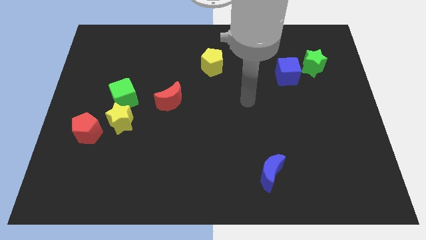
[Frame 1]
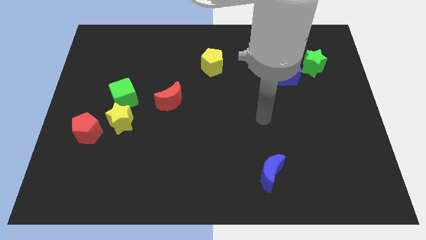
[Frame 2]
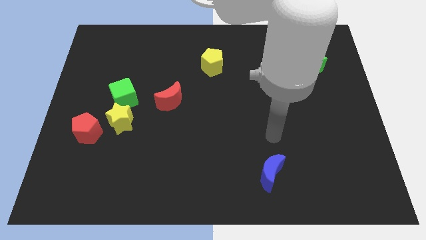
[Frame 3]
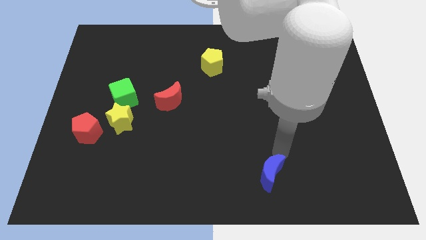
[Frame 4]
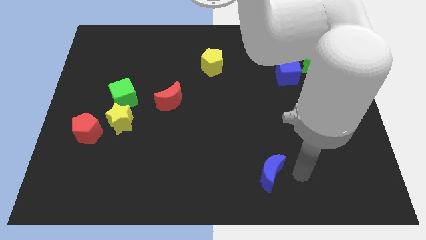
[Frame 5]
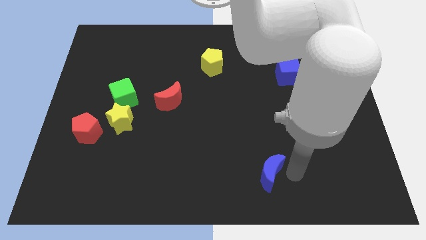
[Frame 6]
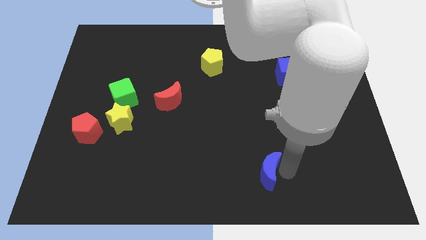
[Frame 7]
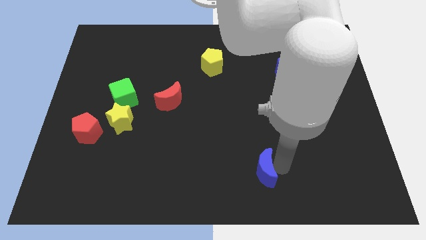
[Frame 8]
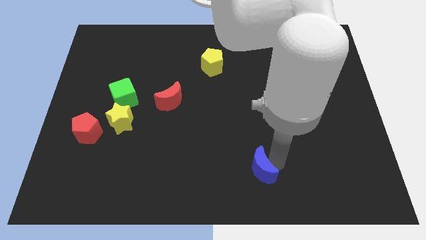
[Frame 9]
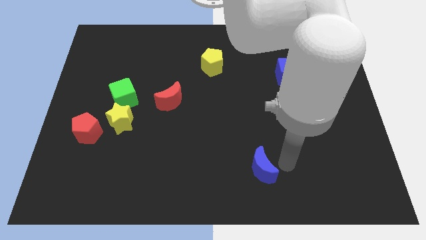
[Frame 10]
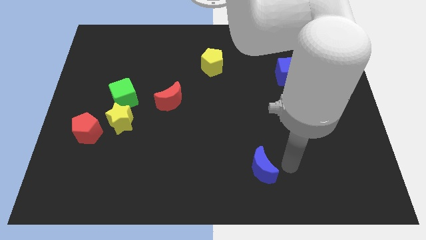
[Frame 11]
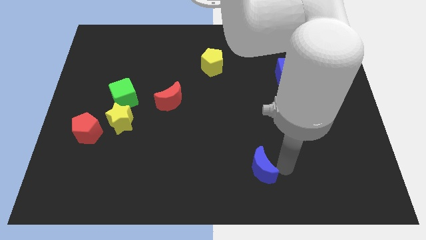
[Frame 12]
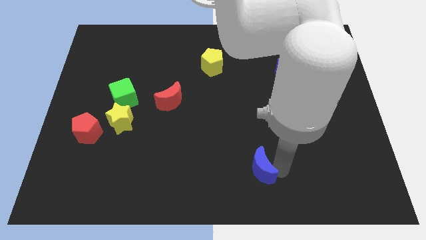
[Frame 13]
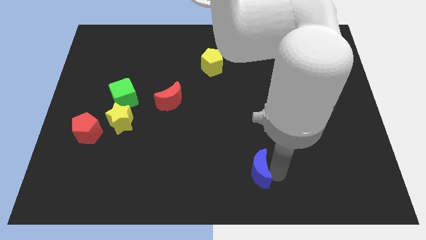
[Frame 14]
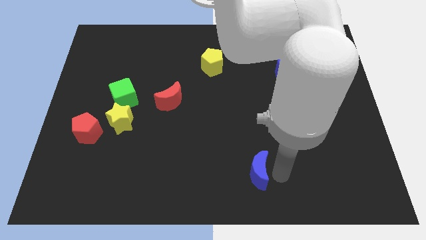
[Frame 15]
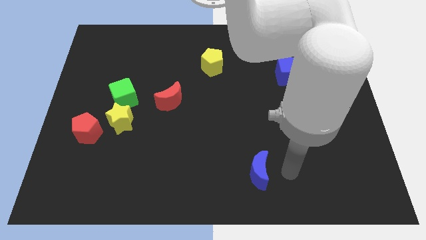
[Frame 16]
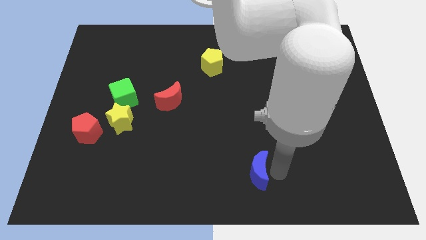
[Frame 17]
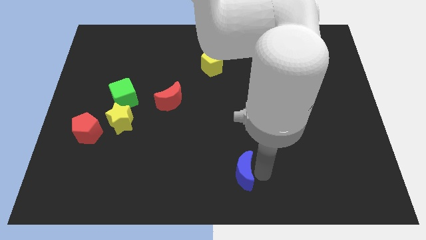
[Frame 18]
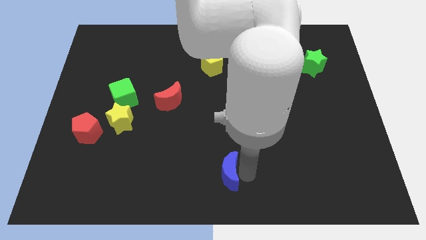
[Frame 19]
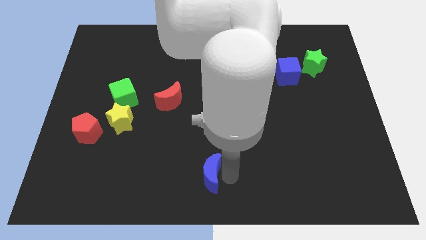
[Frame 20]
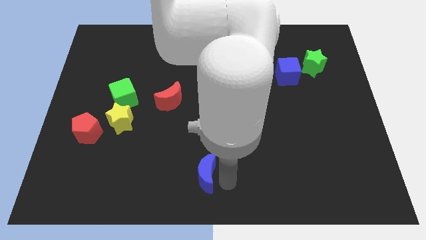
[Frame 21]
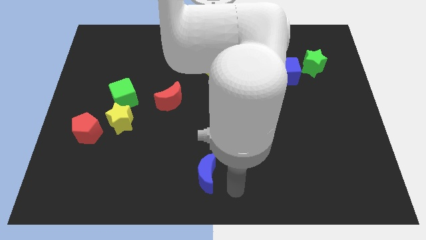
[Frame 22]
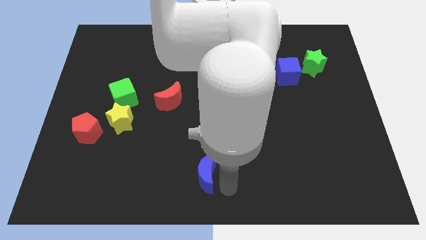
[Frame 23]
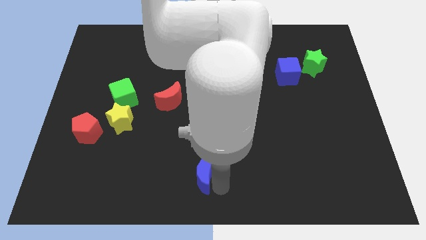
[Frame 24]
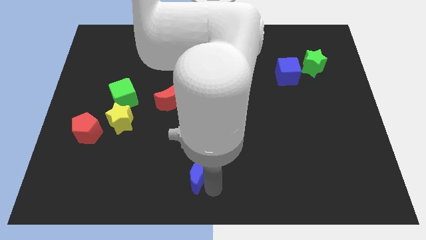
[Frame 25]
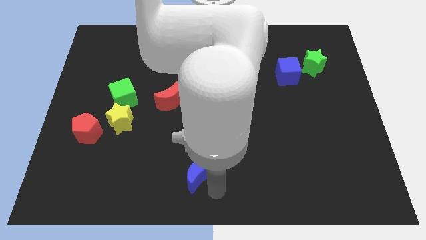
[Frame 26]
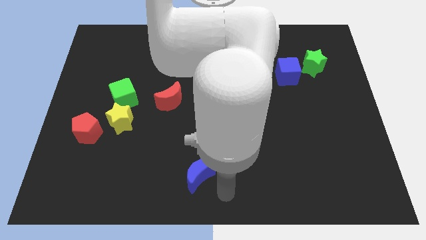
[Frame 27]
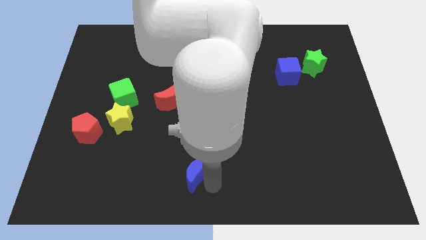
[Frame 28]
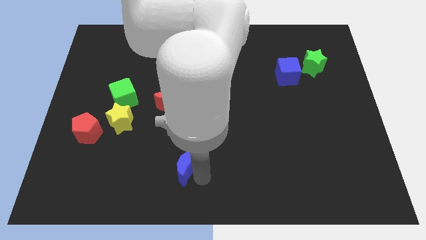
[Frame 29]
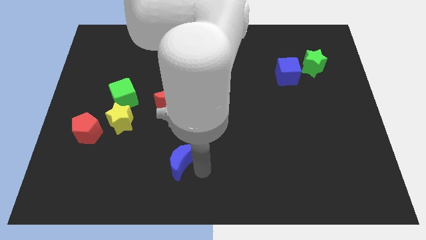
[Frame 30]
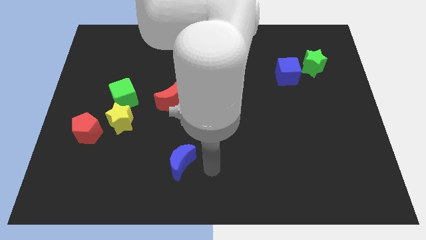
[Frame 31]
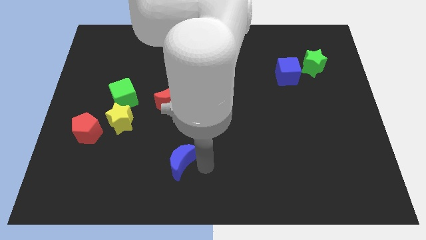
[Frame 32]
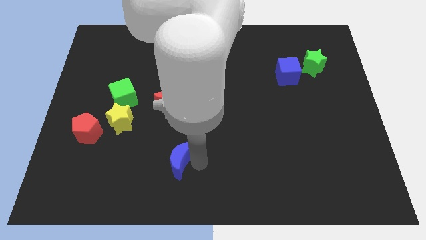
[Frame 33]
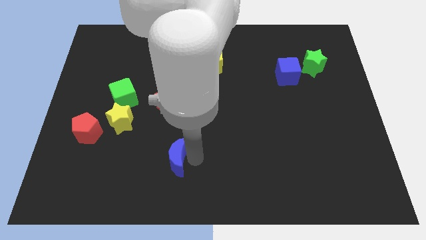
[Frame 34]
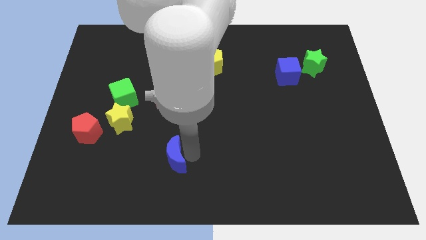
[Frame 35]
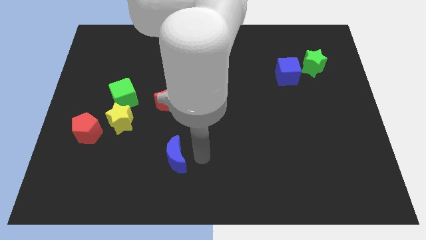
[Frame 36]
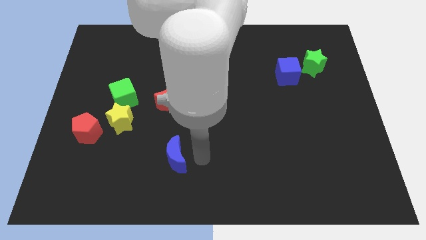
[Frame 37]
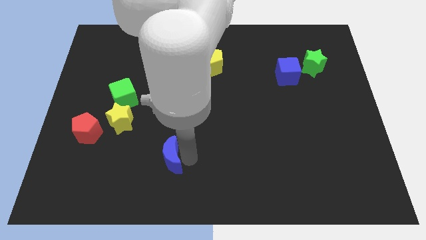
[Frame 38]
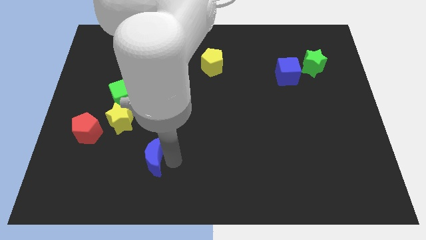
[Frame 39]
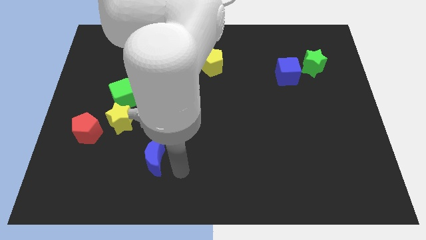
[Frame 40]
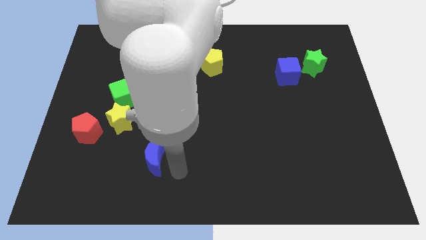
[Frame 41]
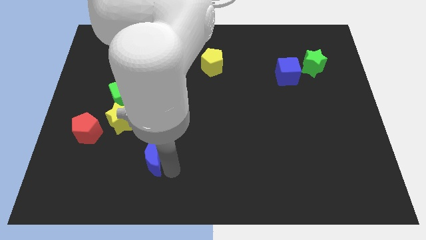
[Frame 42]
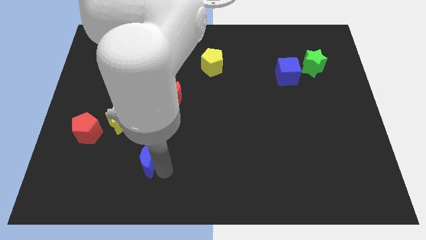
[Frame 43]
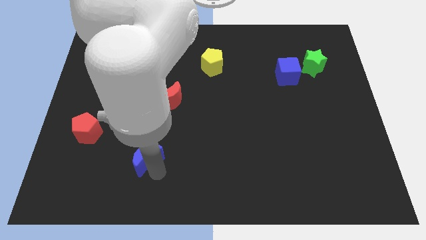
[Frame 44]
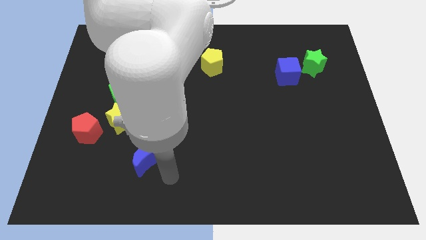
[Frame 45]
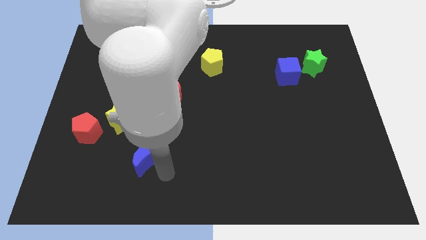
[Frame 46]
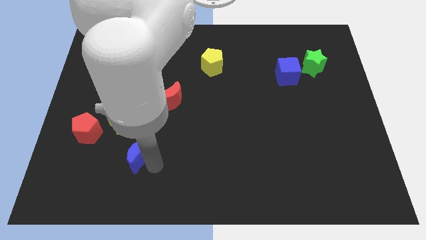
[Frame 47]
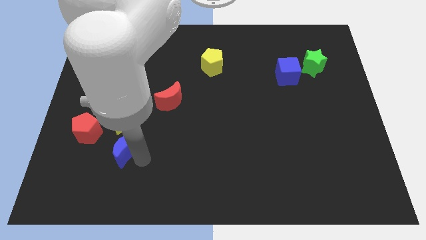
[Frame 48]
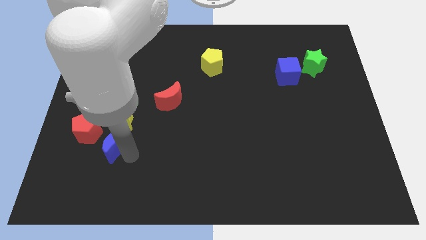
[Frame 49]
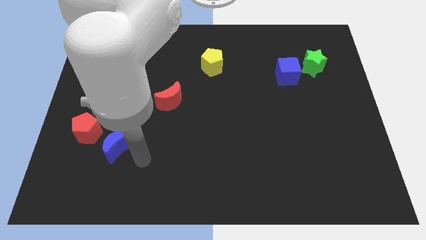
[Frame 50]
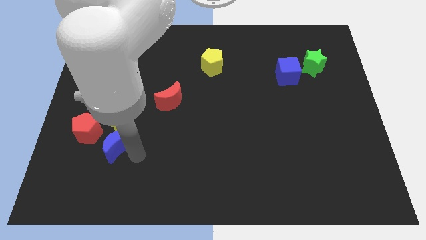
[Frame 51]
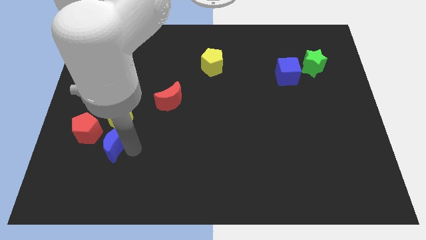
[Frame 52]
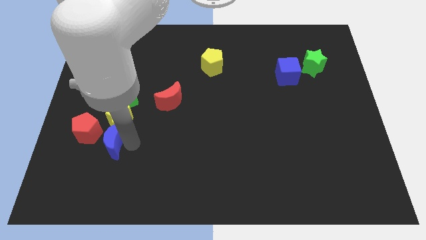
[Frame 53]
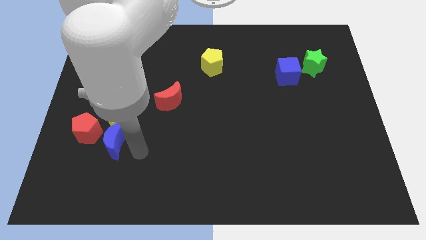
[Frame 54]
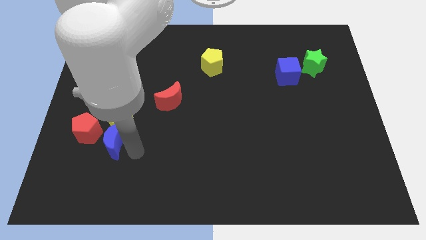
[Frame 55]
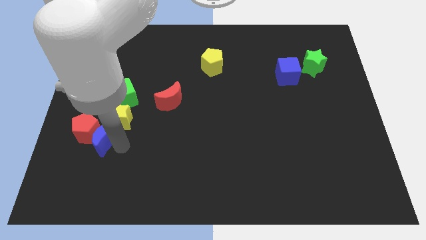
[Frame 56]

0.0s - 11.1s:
move the blue moon next to the red pentagon

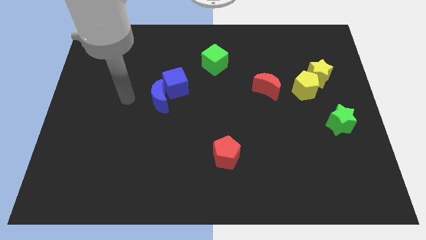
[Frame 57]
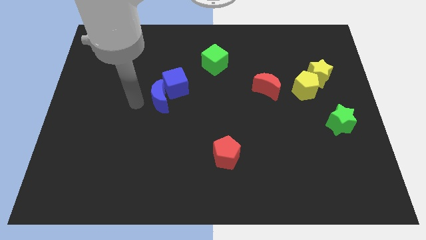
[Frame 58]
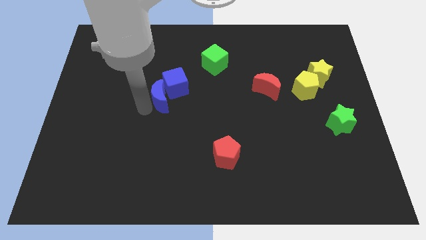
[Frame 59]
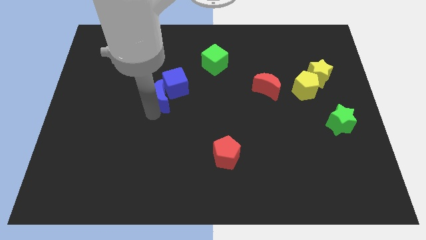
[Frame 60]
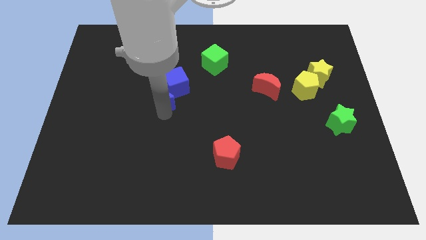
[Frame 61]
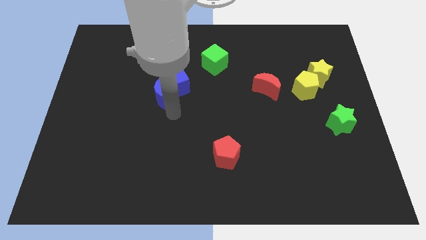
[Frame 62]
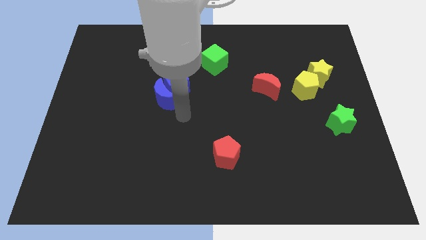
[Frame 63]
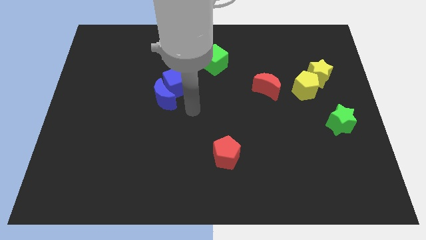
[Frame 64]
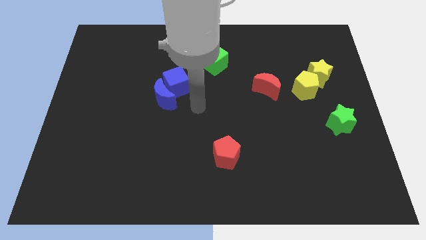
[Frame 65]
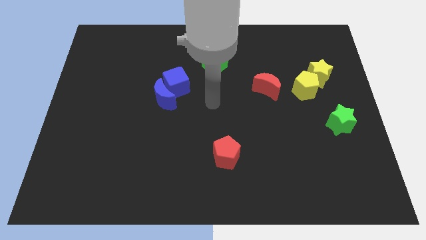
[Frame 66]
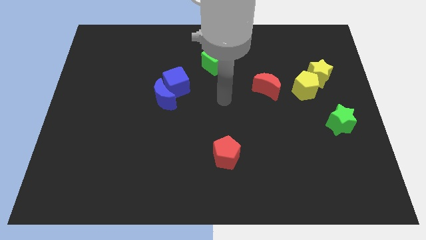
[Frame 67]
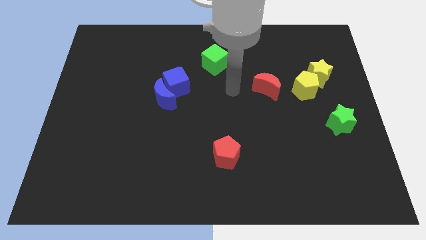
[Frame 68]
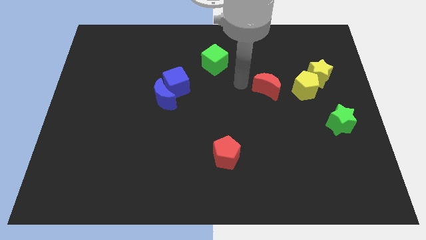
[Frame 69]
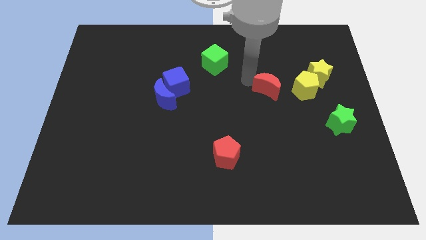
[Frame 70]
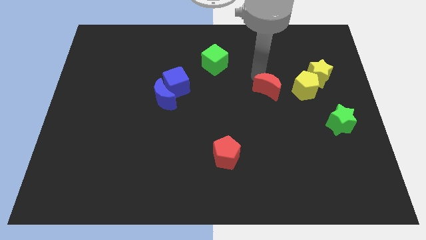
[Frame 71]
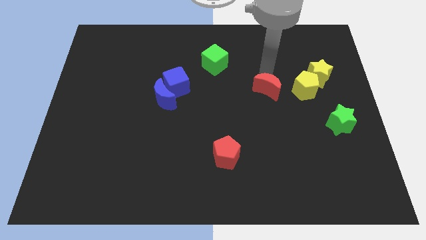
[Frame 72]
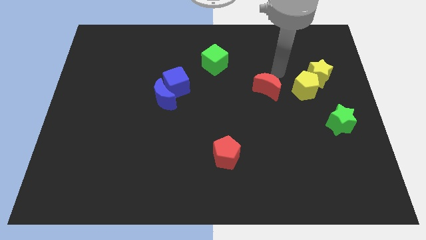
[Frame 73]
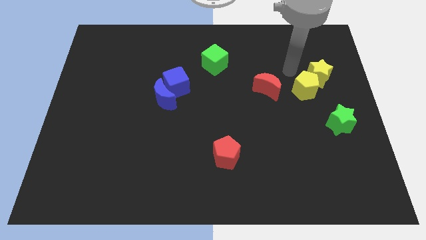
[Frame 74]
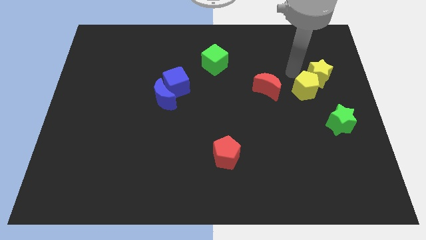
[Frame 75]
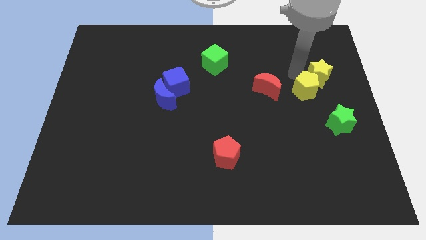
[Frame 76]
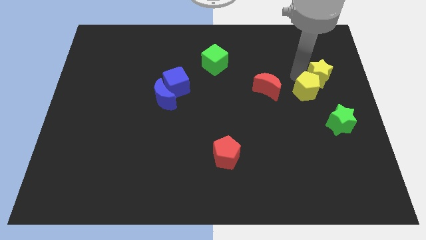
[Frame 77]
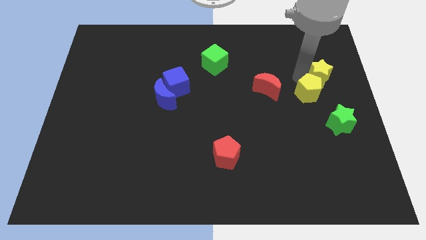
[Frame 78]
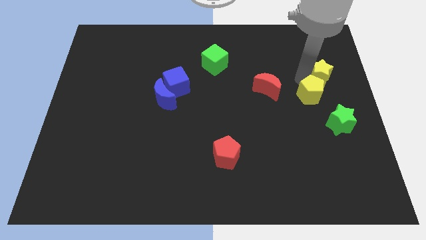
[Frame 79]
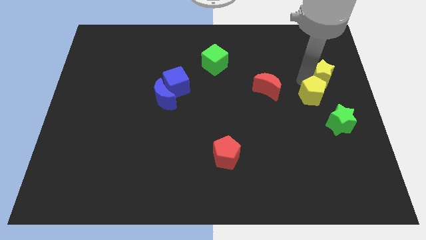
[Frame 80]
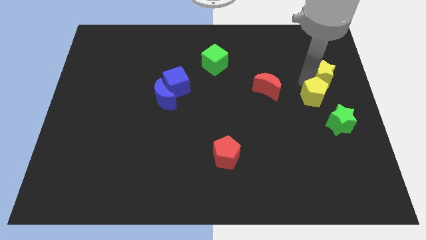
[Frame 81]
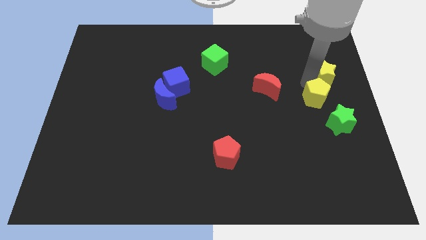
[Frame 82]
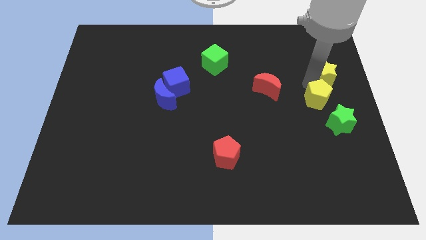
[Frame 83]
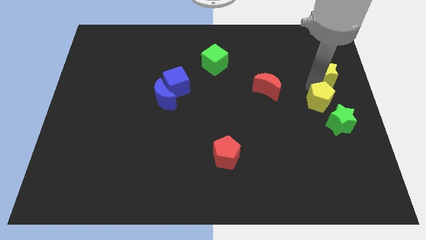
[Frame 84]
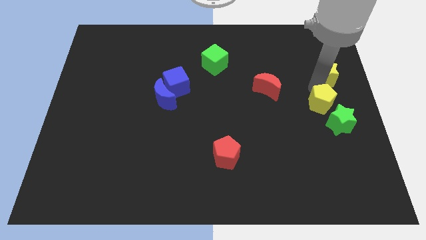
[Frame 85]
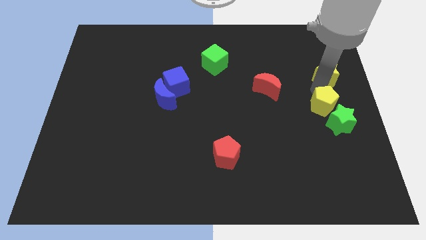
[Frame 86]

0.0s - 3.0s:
slide the yellow pentagon close to the green star
